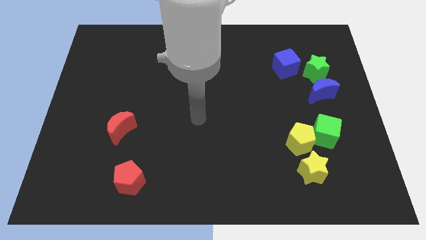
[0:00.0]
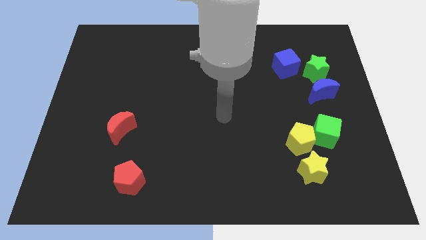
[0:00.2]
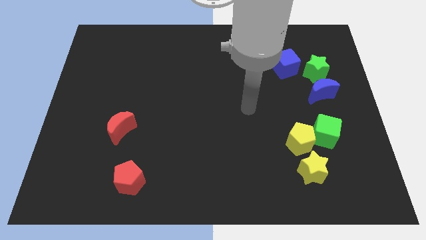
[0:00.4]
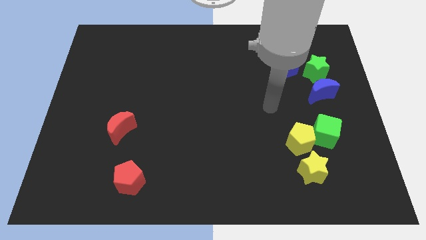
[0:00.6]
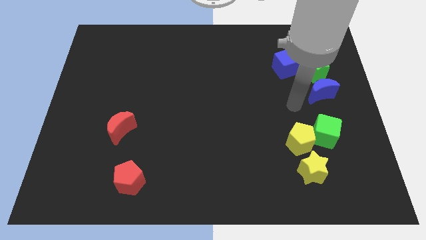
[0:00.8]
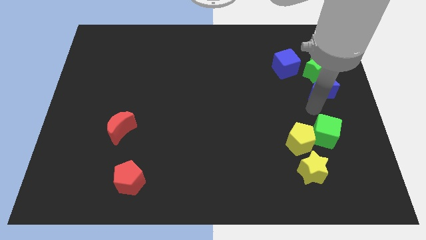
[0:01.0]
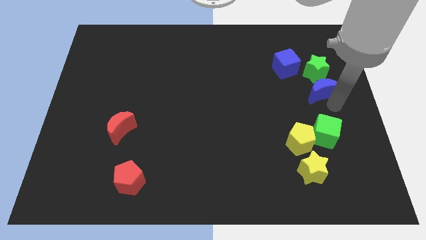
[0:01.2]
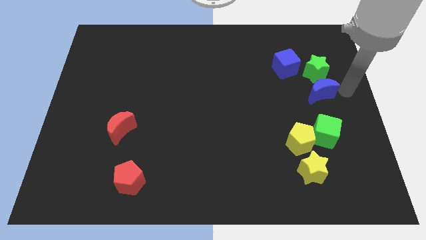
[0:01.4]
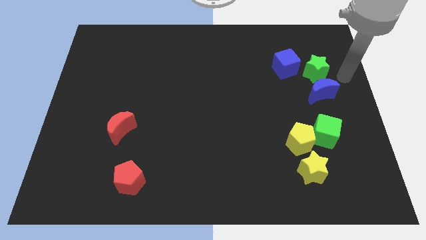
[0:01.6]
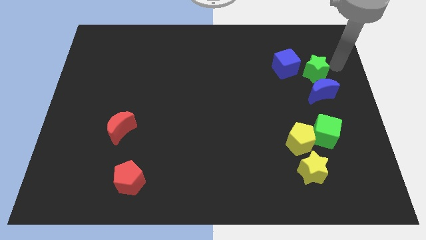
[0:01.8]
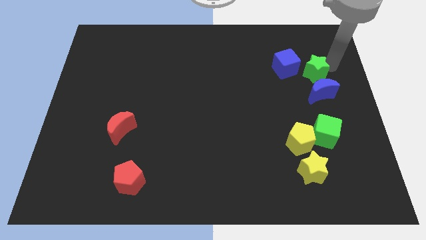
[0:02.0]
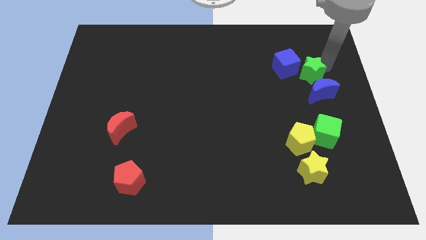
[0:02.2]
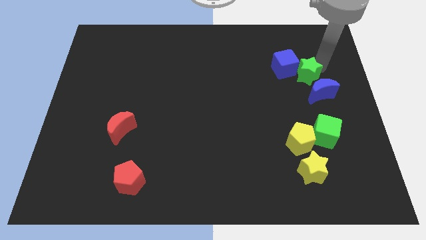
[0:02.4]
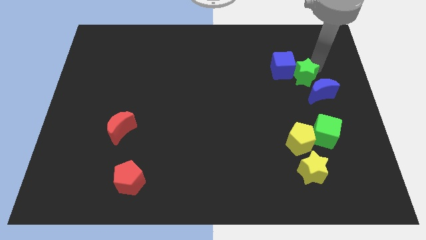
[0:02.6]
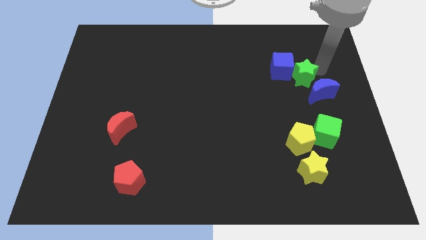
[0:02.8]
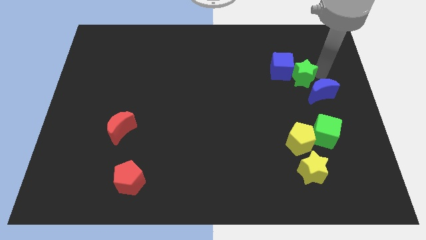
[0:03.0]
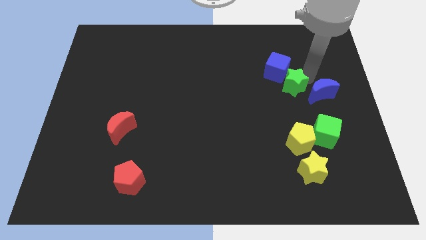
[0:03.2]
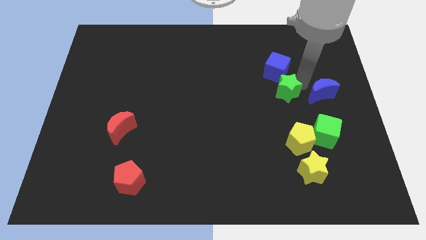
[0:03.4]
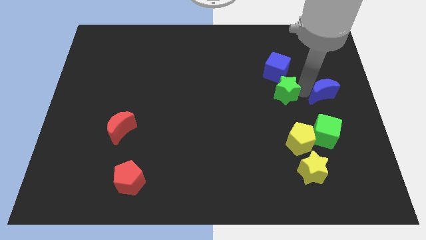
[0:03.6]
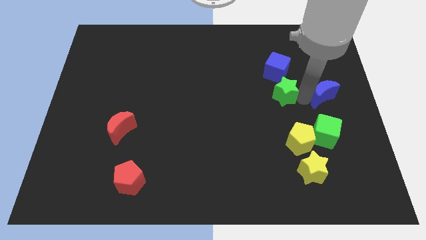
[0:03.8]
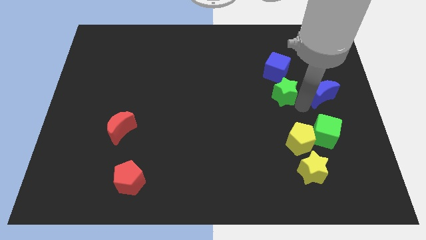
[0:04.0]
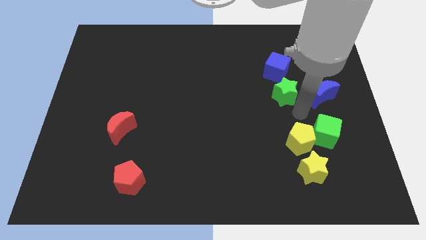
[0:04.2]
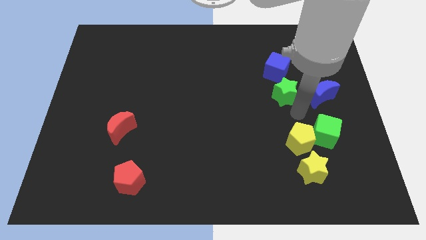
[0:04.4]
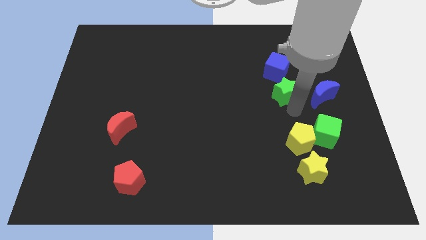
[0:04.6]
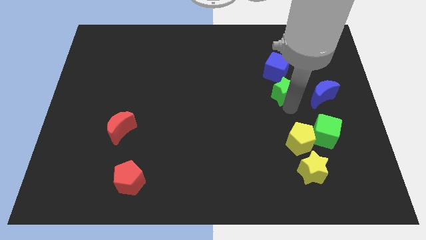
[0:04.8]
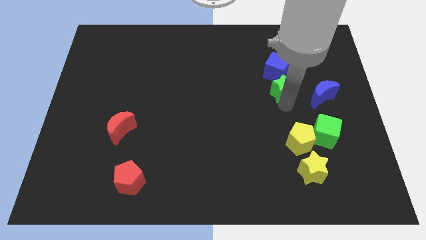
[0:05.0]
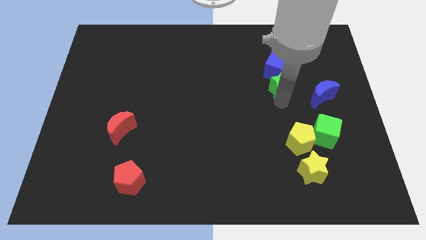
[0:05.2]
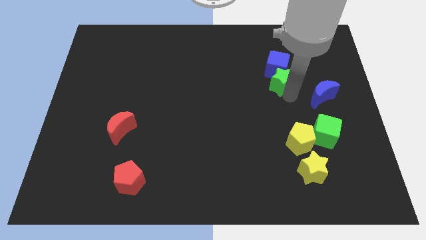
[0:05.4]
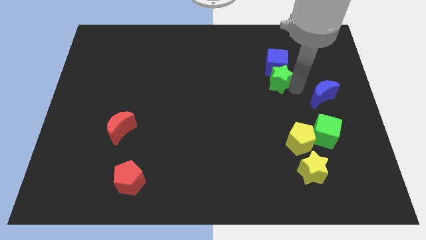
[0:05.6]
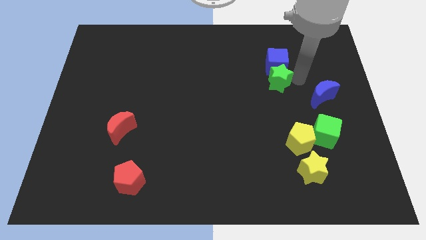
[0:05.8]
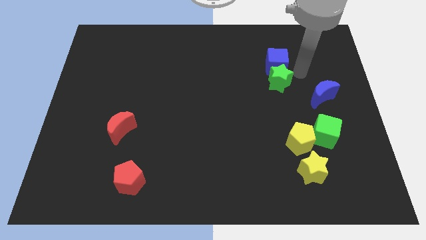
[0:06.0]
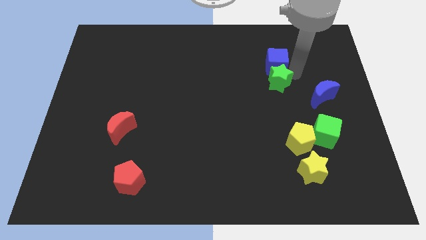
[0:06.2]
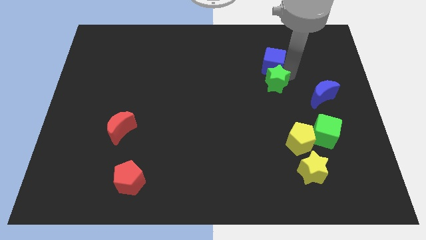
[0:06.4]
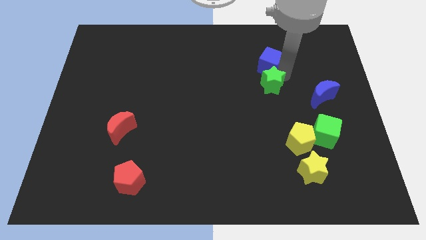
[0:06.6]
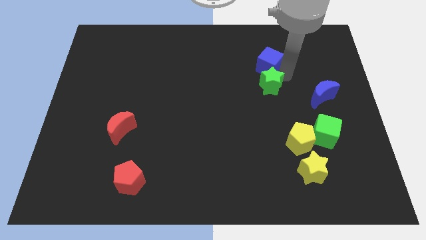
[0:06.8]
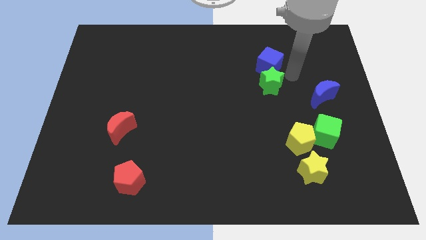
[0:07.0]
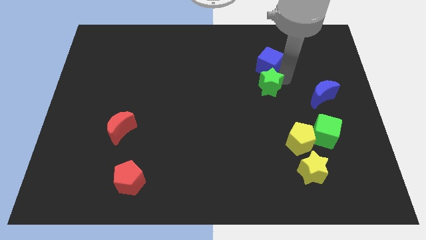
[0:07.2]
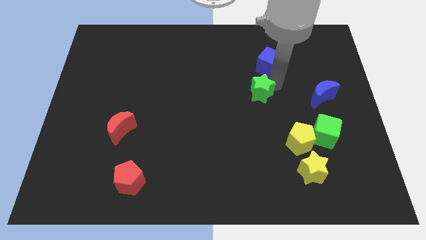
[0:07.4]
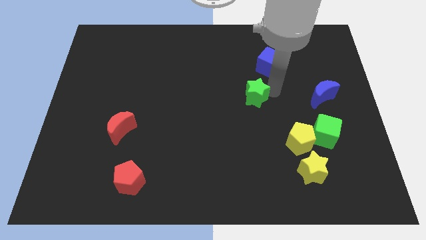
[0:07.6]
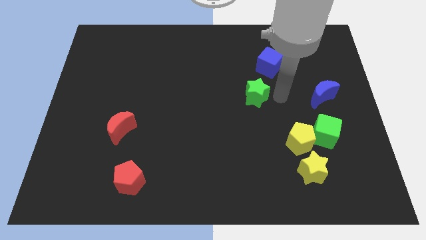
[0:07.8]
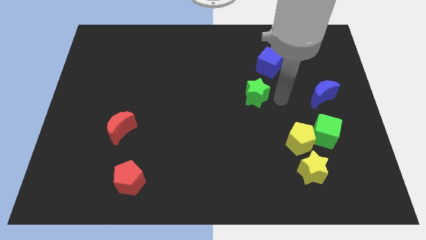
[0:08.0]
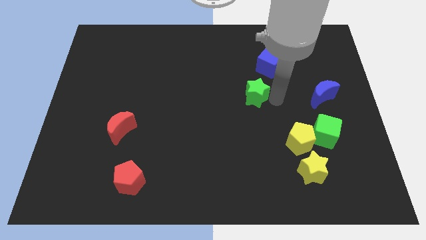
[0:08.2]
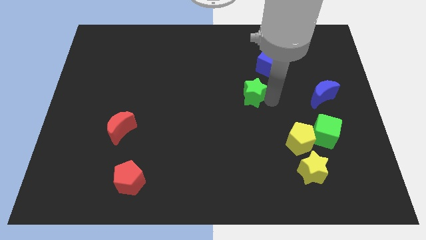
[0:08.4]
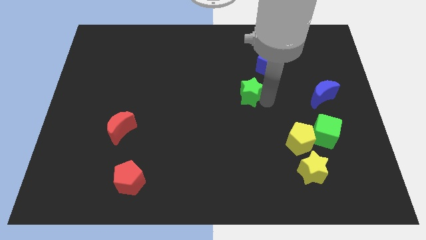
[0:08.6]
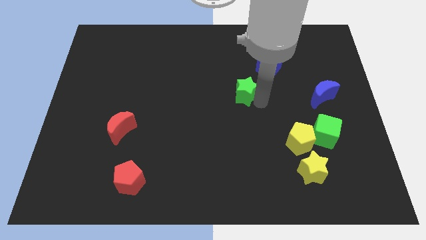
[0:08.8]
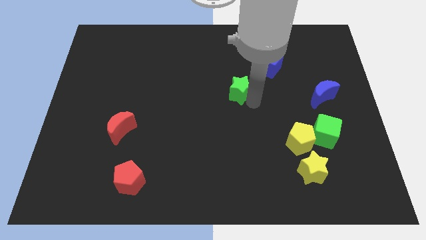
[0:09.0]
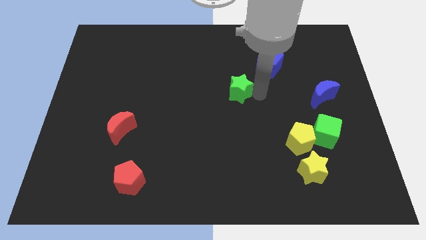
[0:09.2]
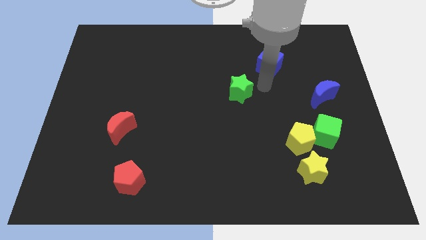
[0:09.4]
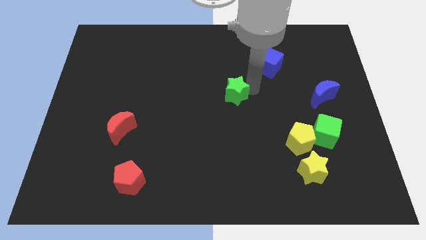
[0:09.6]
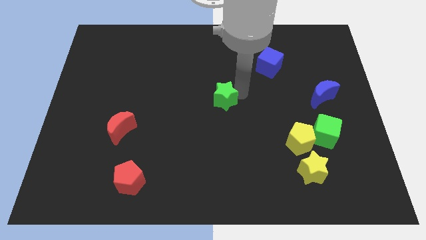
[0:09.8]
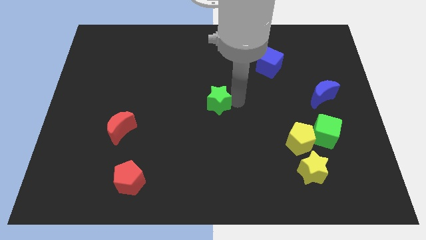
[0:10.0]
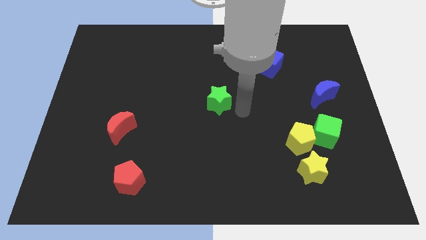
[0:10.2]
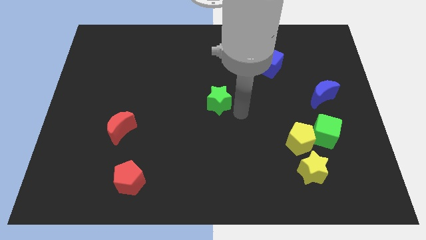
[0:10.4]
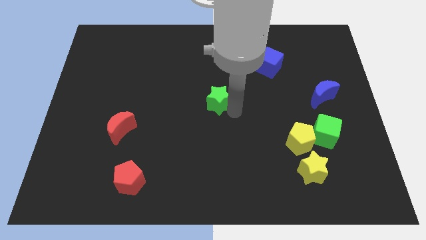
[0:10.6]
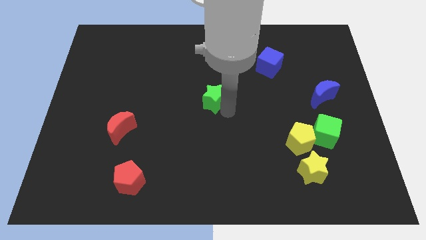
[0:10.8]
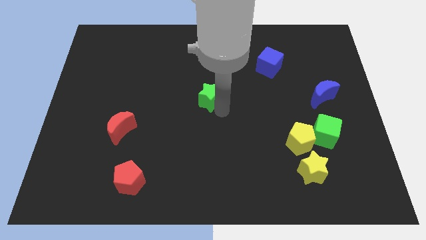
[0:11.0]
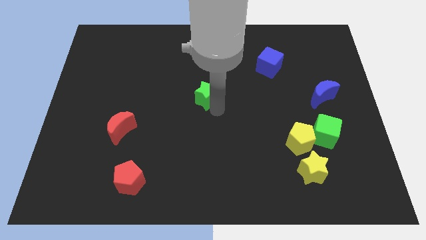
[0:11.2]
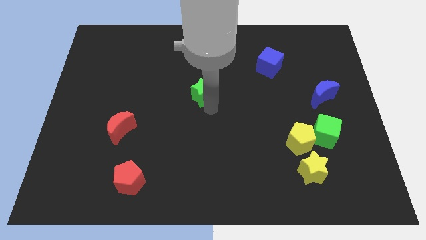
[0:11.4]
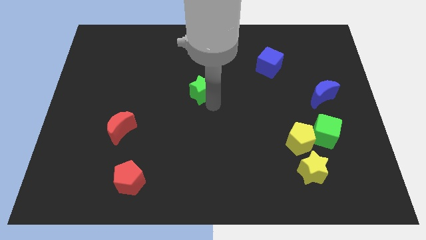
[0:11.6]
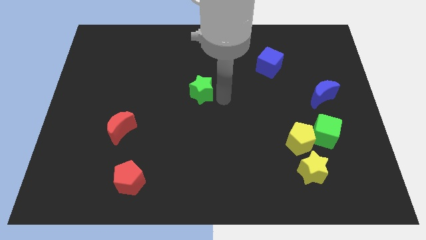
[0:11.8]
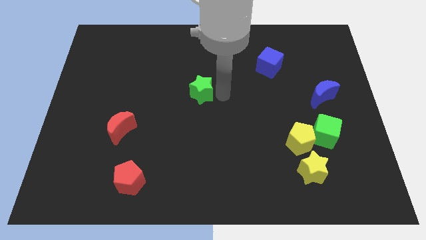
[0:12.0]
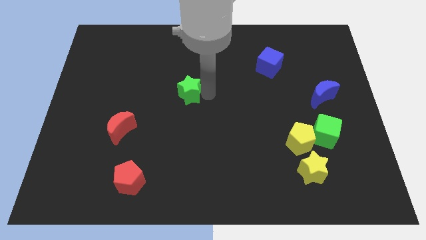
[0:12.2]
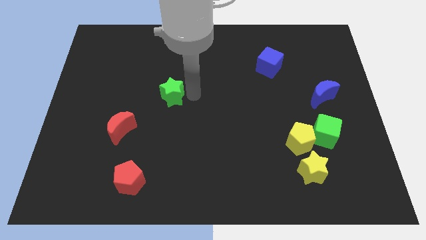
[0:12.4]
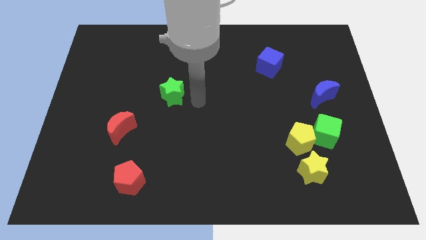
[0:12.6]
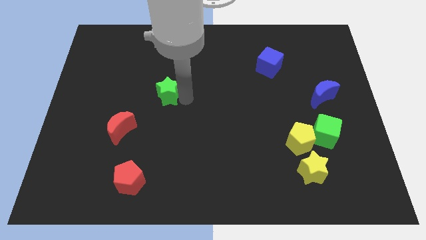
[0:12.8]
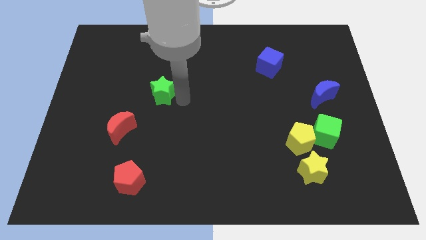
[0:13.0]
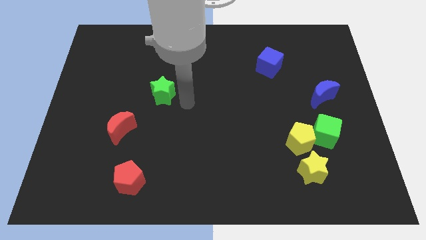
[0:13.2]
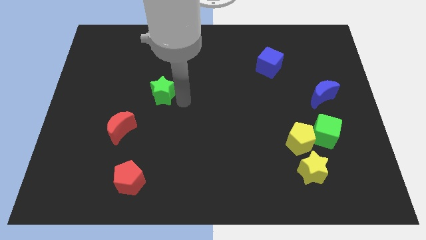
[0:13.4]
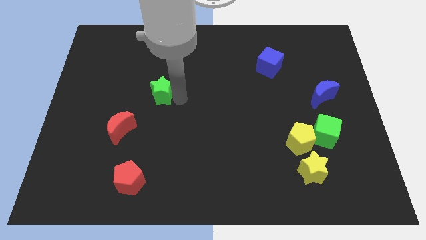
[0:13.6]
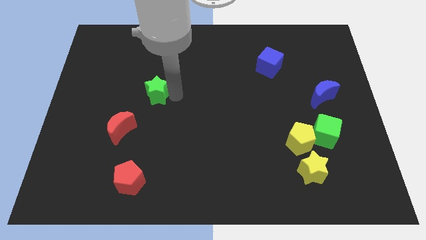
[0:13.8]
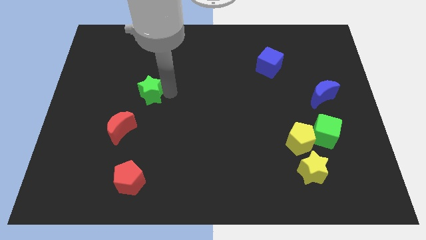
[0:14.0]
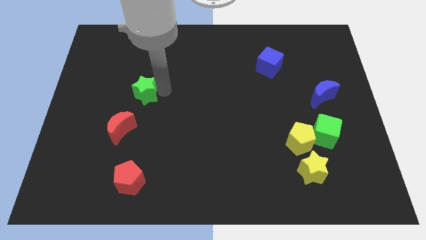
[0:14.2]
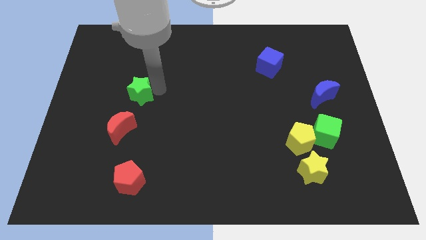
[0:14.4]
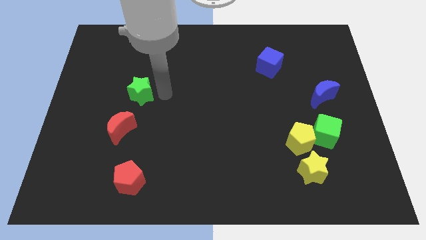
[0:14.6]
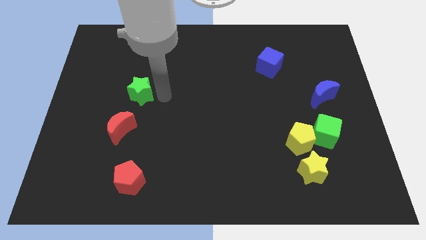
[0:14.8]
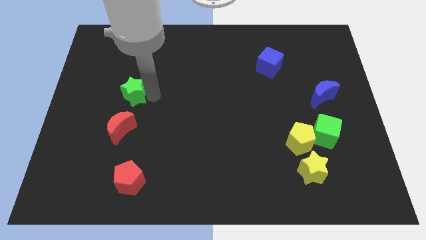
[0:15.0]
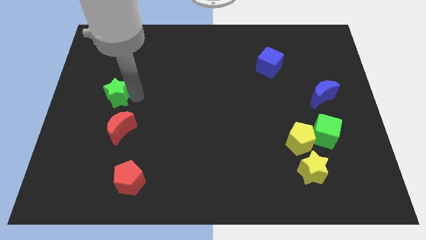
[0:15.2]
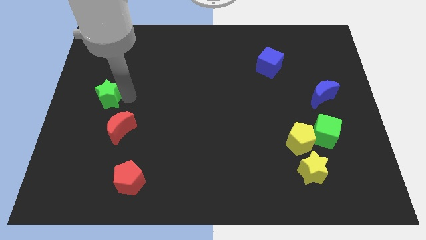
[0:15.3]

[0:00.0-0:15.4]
move the green star to the left side
